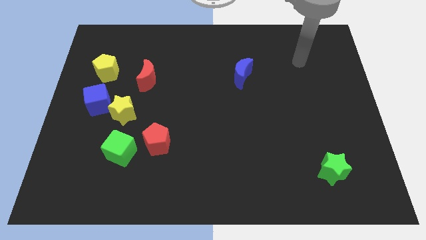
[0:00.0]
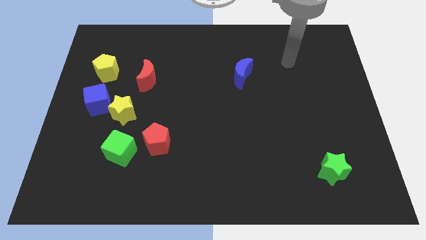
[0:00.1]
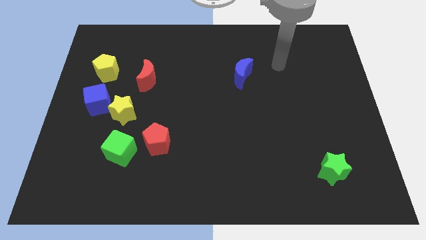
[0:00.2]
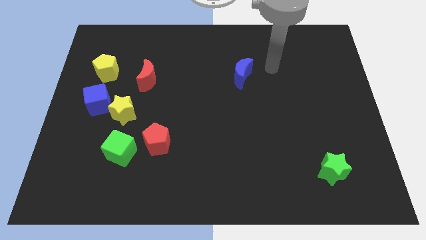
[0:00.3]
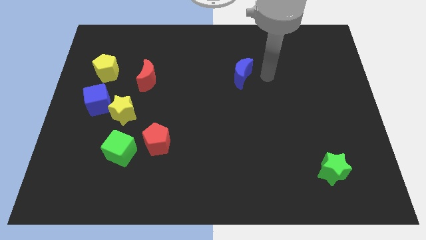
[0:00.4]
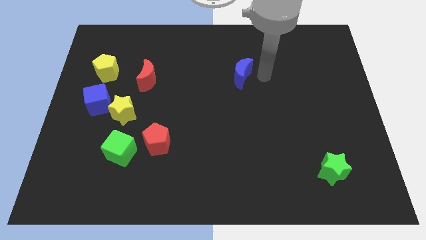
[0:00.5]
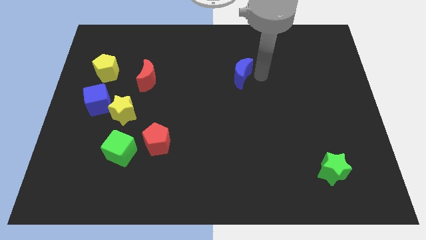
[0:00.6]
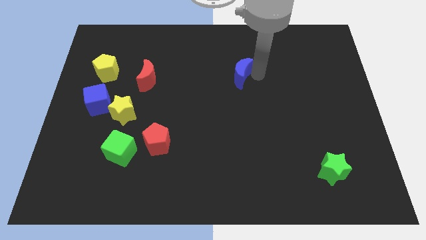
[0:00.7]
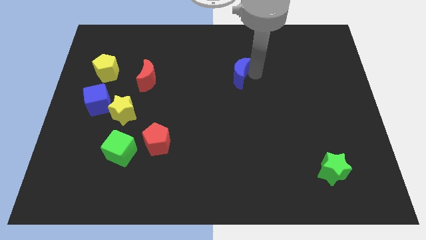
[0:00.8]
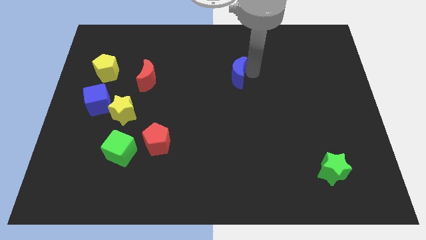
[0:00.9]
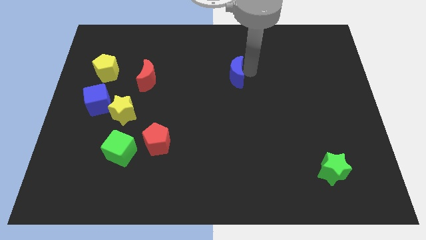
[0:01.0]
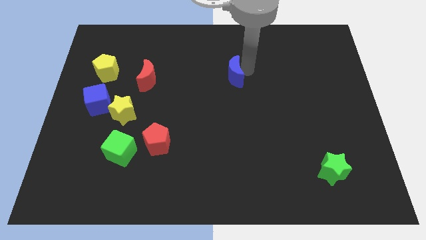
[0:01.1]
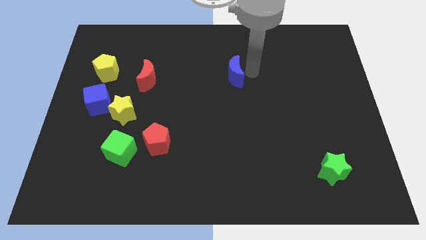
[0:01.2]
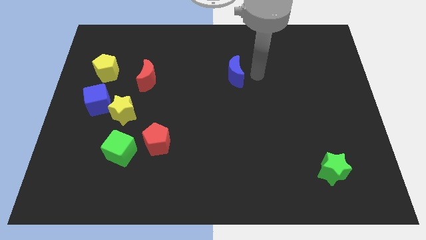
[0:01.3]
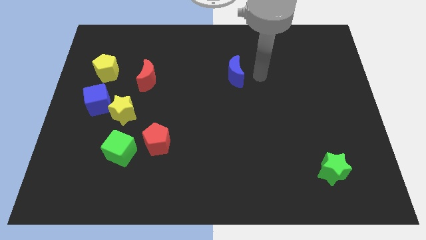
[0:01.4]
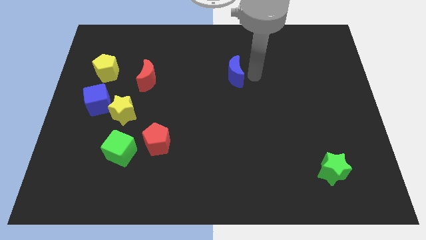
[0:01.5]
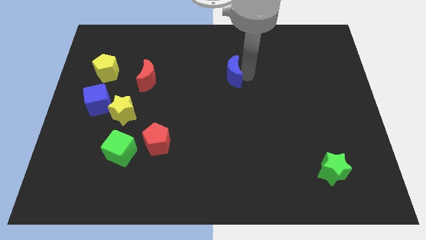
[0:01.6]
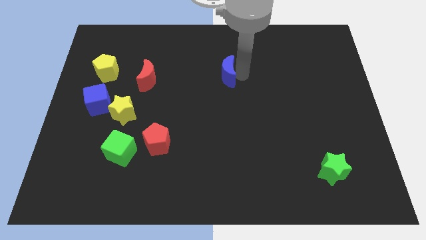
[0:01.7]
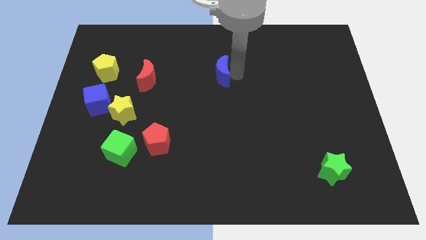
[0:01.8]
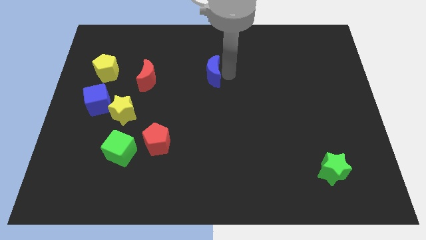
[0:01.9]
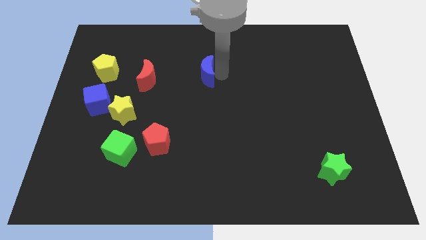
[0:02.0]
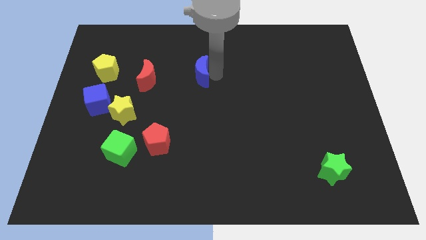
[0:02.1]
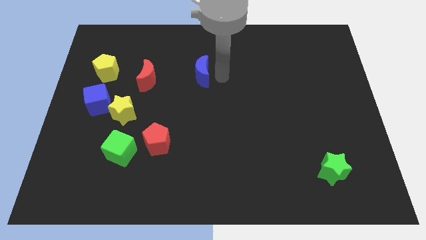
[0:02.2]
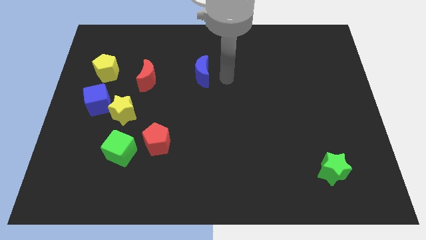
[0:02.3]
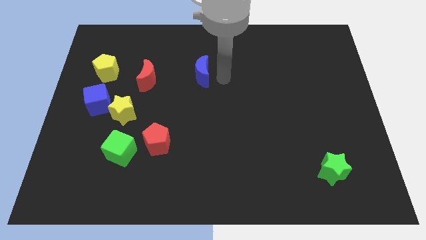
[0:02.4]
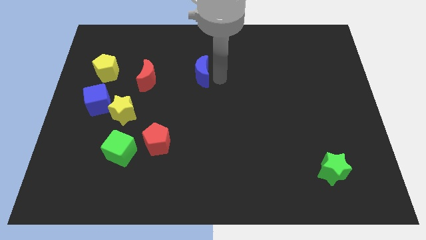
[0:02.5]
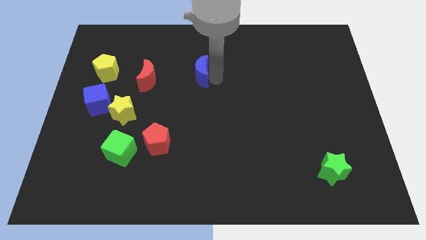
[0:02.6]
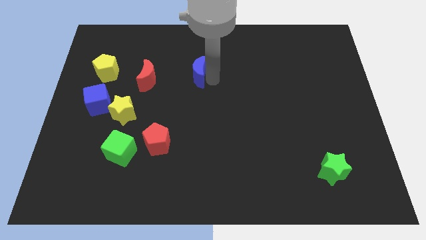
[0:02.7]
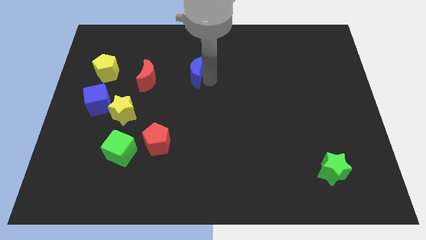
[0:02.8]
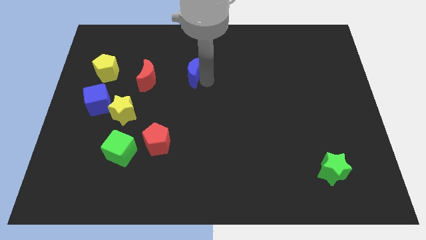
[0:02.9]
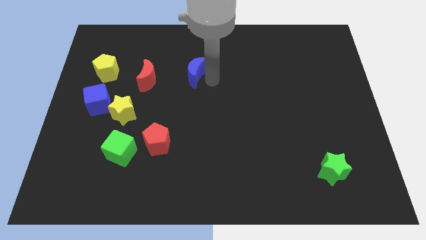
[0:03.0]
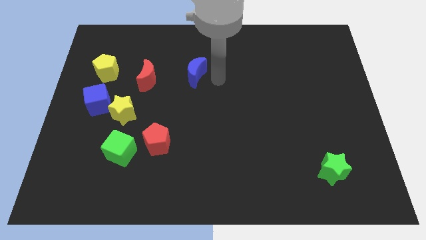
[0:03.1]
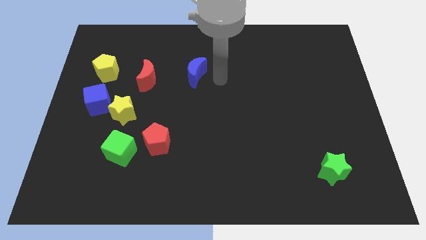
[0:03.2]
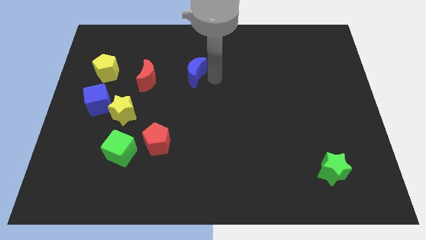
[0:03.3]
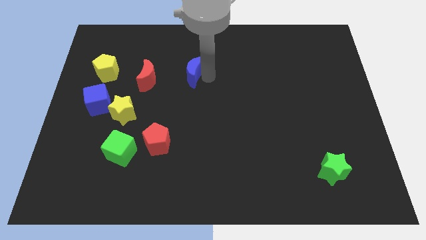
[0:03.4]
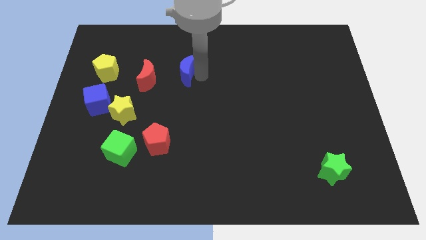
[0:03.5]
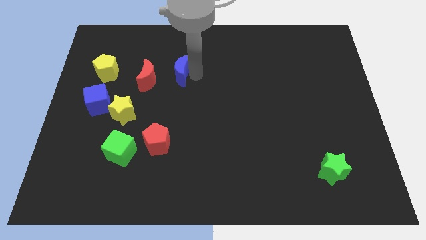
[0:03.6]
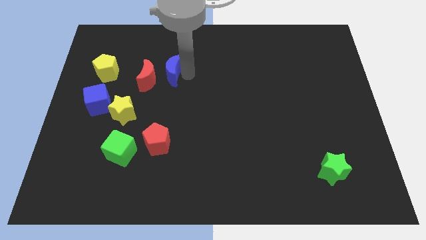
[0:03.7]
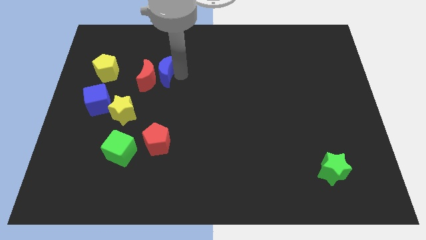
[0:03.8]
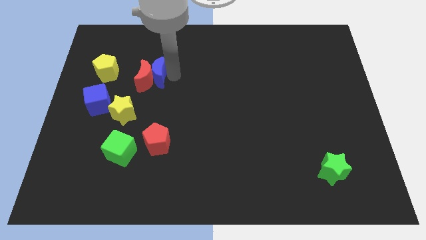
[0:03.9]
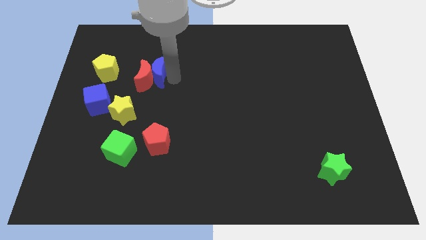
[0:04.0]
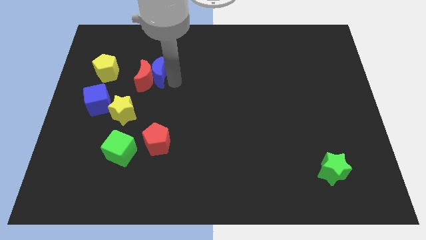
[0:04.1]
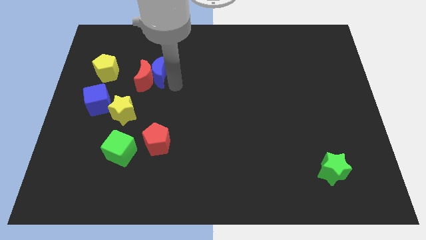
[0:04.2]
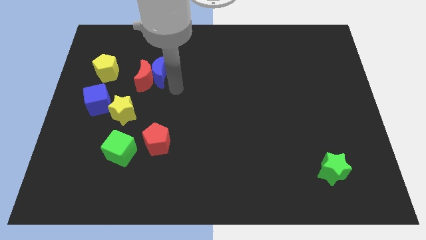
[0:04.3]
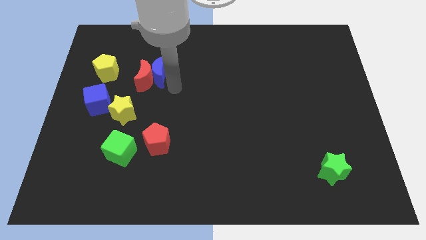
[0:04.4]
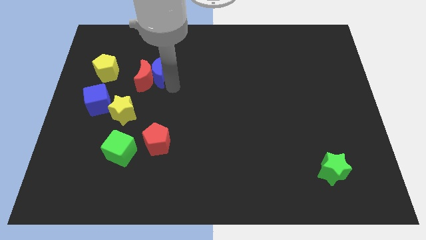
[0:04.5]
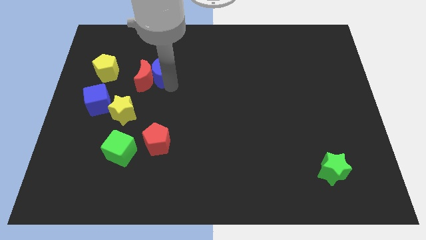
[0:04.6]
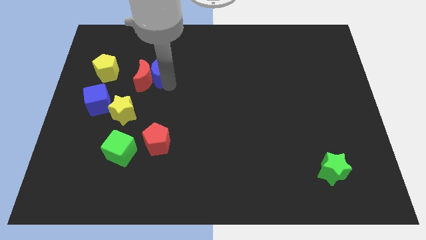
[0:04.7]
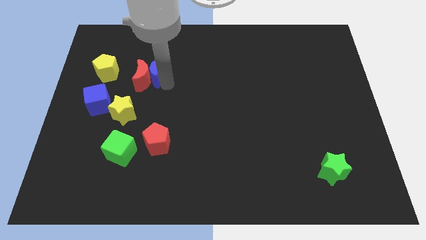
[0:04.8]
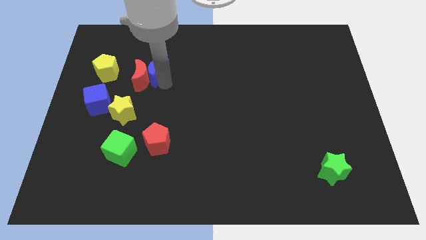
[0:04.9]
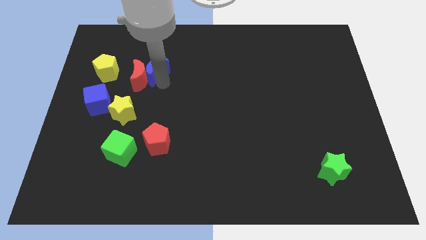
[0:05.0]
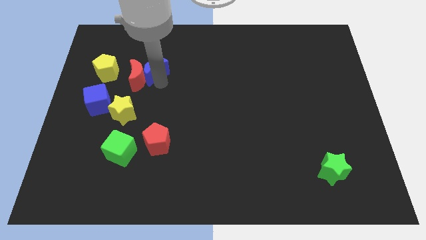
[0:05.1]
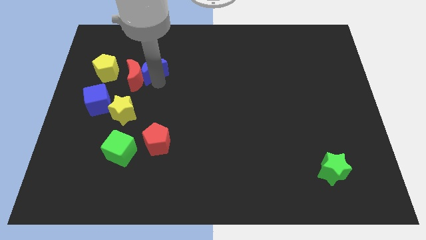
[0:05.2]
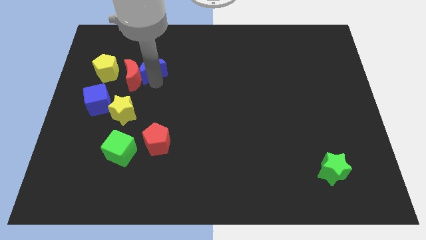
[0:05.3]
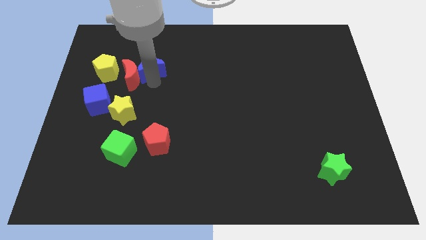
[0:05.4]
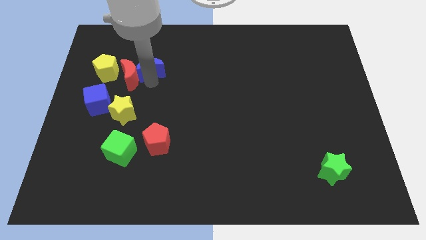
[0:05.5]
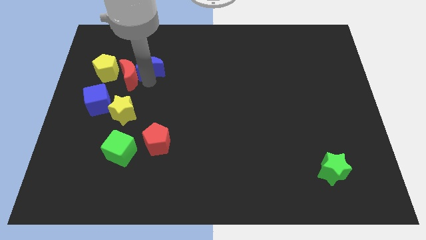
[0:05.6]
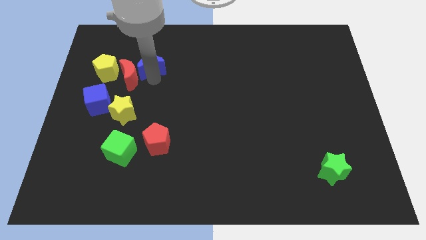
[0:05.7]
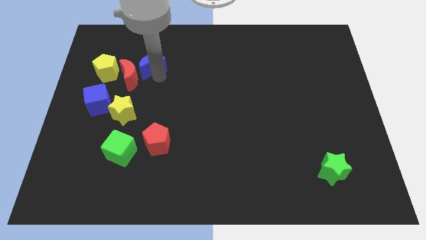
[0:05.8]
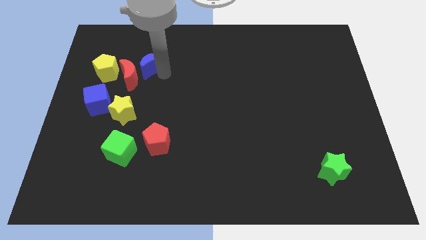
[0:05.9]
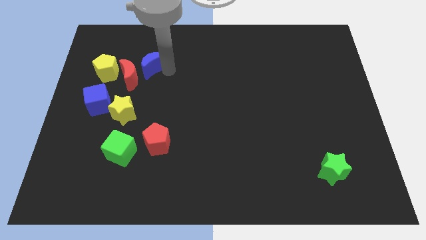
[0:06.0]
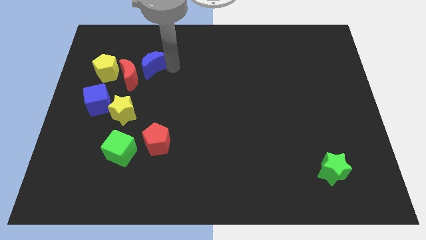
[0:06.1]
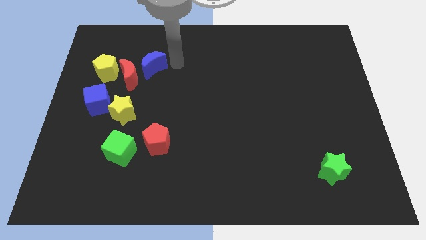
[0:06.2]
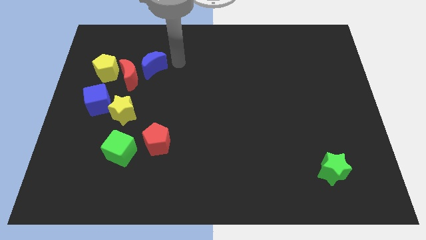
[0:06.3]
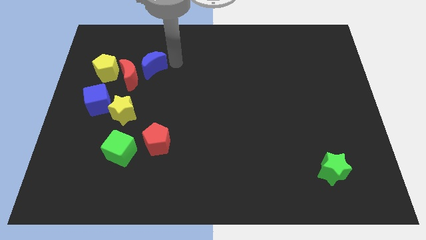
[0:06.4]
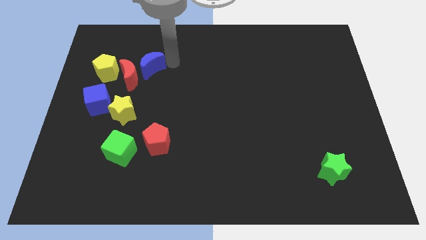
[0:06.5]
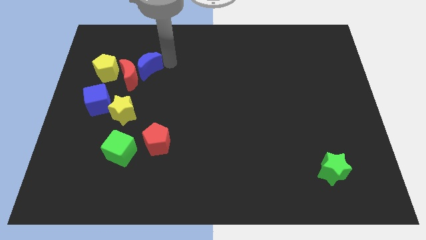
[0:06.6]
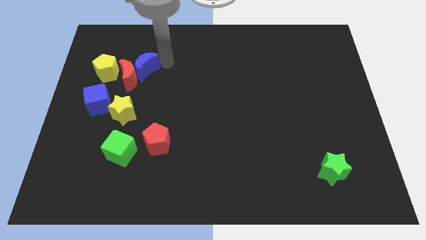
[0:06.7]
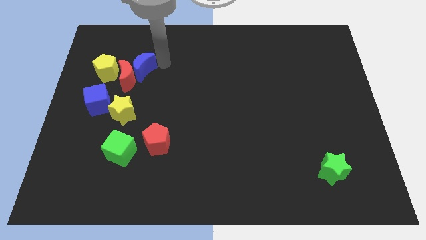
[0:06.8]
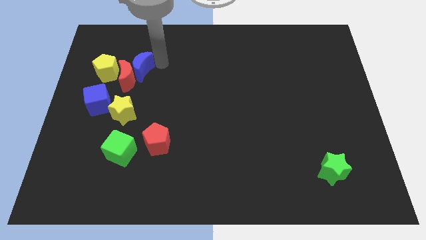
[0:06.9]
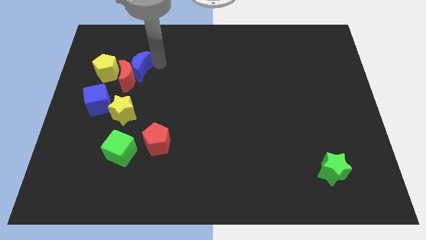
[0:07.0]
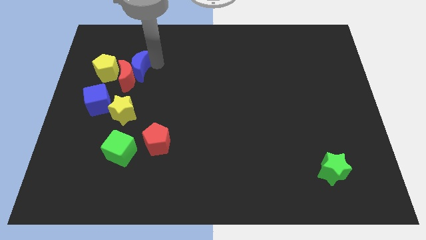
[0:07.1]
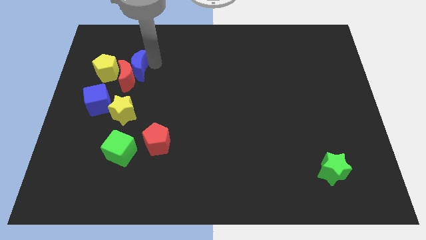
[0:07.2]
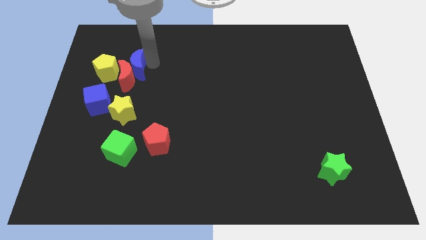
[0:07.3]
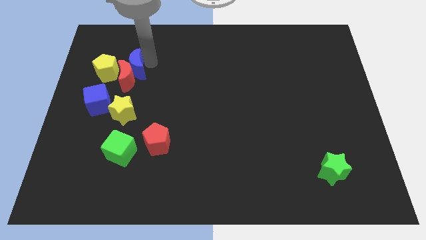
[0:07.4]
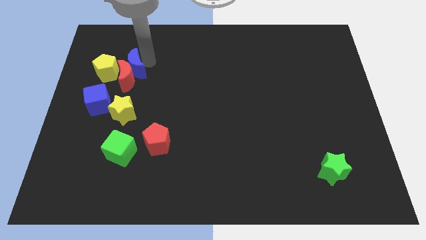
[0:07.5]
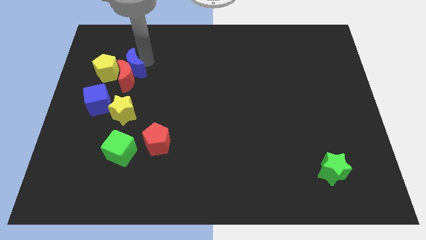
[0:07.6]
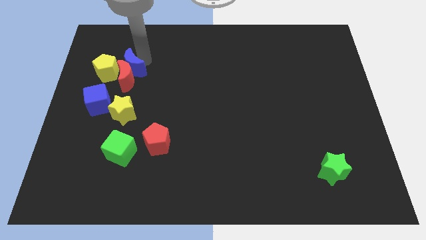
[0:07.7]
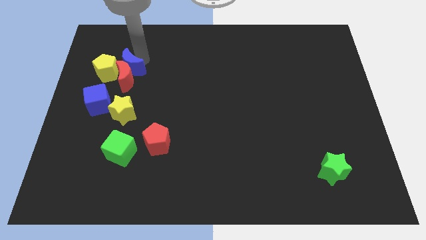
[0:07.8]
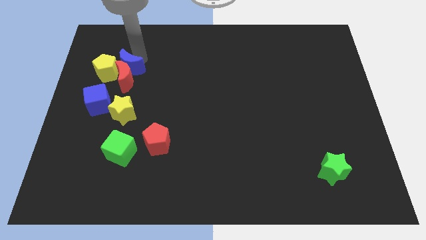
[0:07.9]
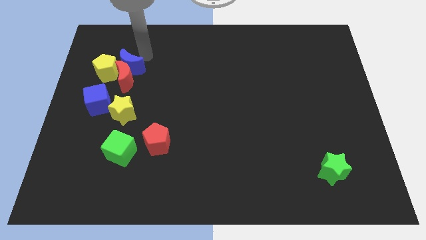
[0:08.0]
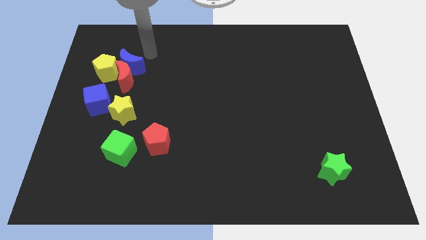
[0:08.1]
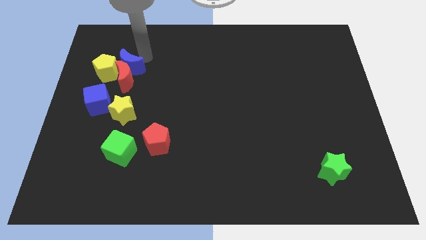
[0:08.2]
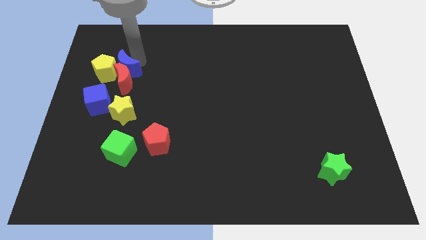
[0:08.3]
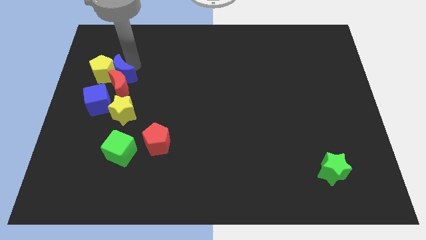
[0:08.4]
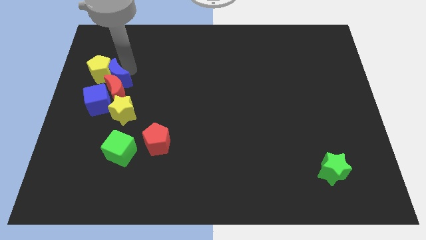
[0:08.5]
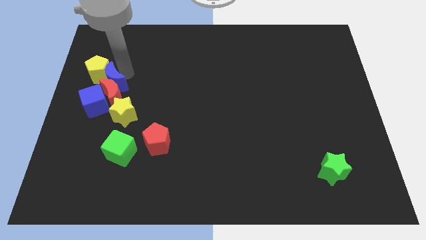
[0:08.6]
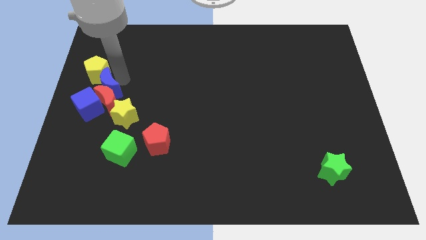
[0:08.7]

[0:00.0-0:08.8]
push the blue moon to the left side of the board
